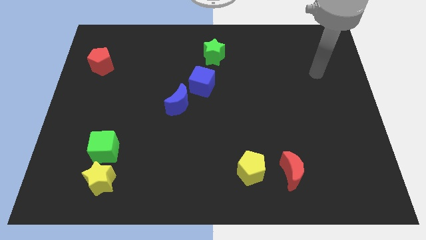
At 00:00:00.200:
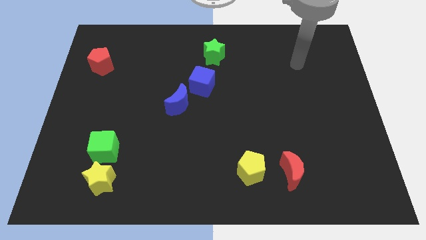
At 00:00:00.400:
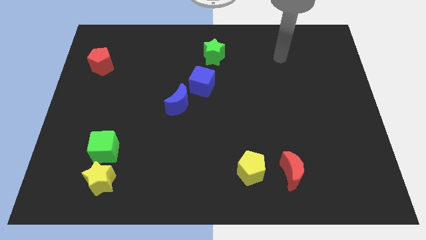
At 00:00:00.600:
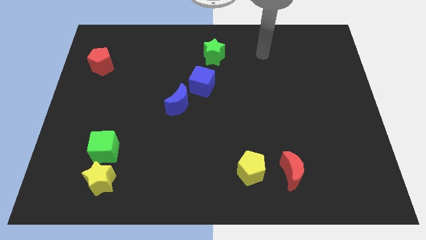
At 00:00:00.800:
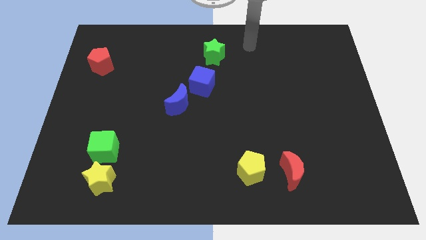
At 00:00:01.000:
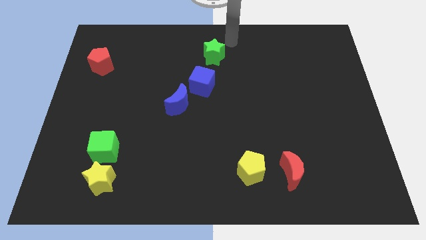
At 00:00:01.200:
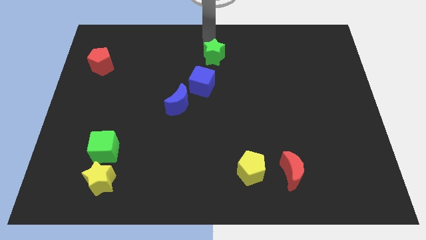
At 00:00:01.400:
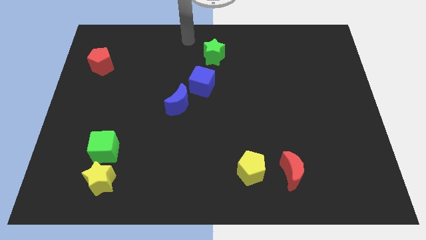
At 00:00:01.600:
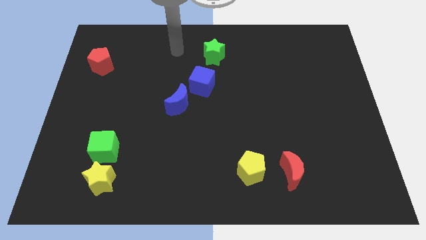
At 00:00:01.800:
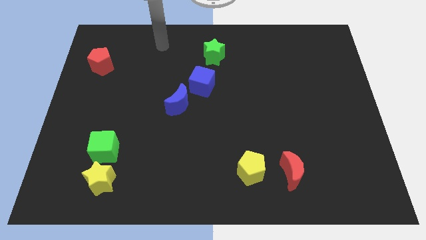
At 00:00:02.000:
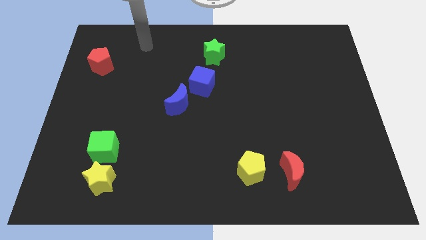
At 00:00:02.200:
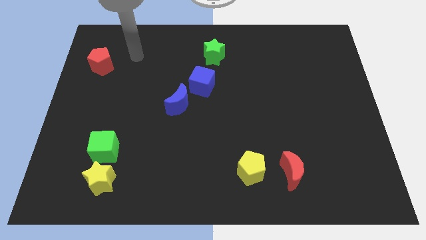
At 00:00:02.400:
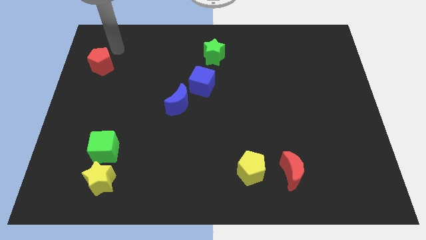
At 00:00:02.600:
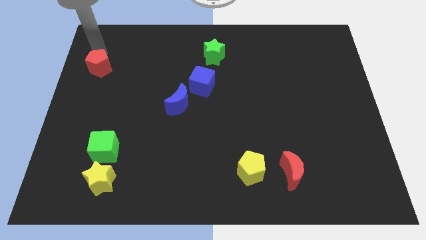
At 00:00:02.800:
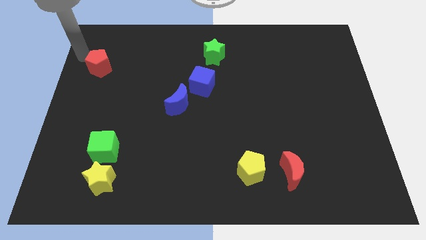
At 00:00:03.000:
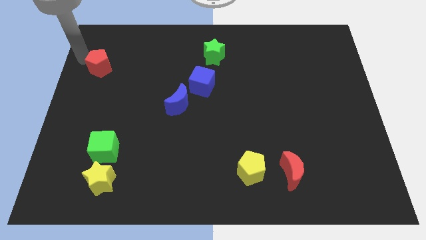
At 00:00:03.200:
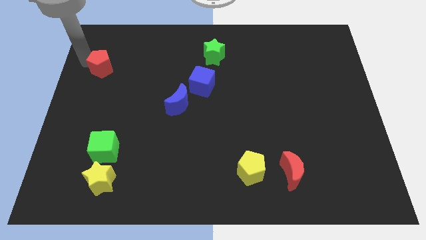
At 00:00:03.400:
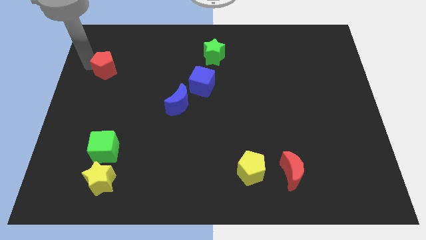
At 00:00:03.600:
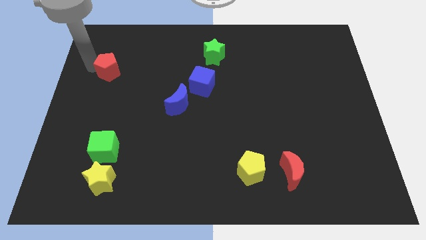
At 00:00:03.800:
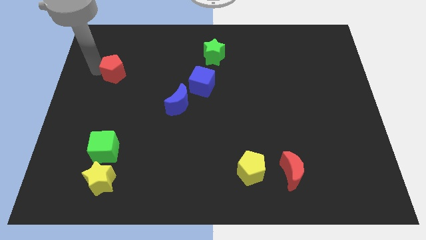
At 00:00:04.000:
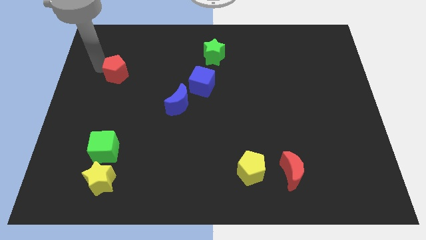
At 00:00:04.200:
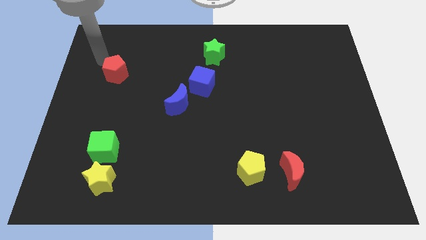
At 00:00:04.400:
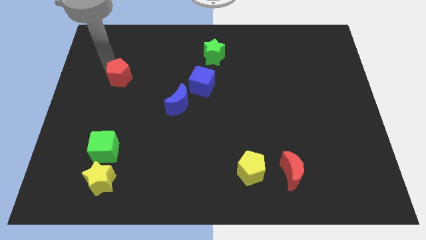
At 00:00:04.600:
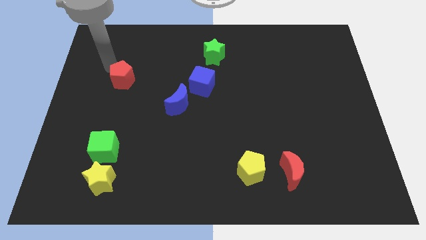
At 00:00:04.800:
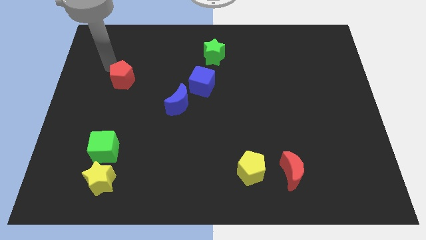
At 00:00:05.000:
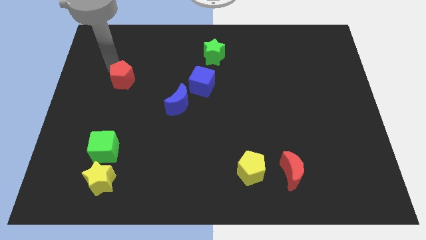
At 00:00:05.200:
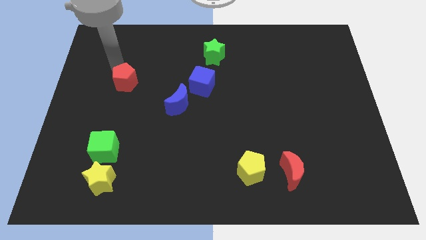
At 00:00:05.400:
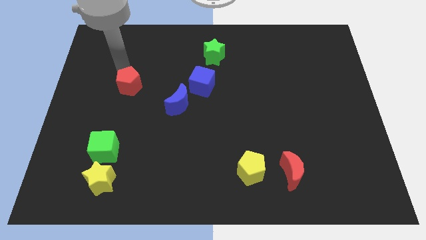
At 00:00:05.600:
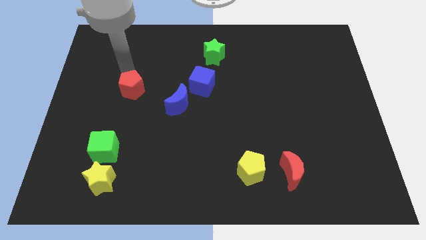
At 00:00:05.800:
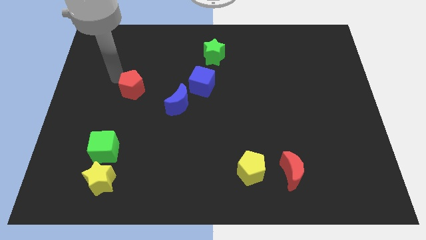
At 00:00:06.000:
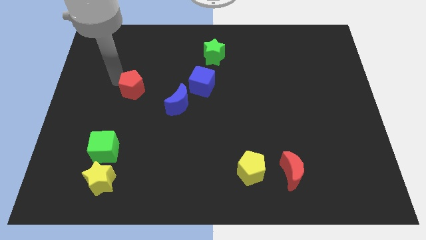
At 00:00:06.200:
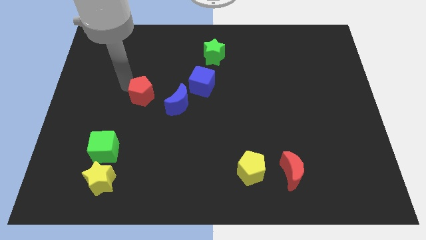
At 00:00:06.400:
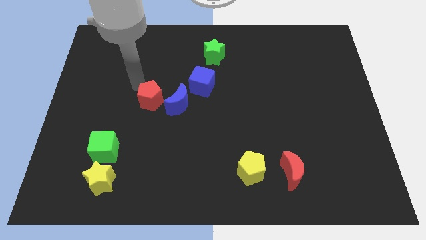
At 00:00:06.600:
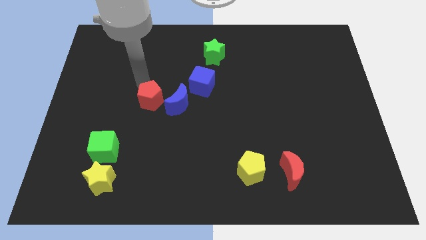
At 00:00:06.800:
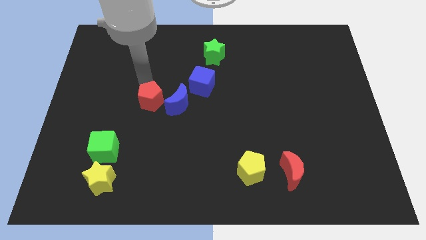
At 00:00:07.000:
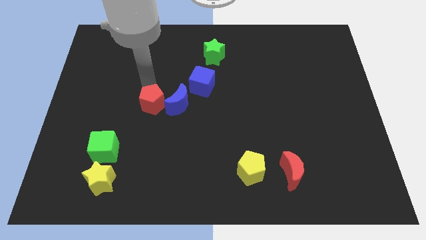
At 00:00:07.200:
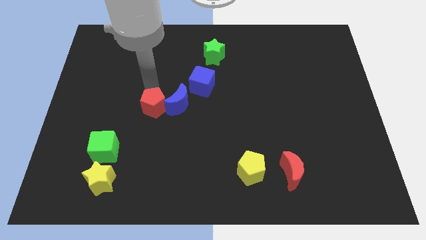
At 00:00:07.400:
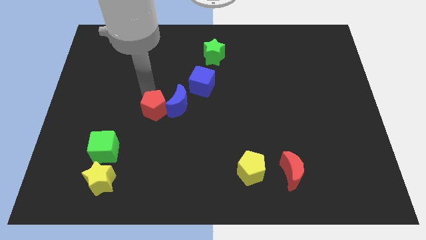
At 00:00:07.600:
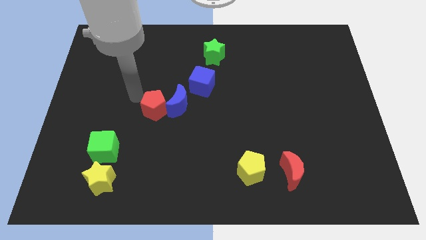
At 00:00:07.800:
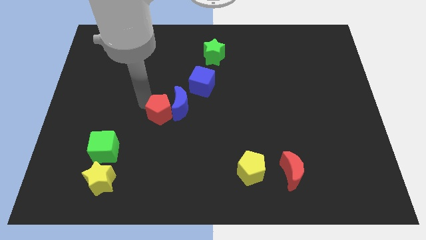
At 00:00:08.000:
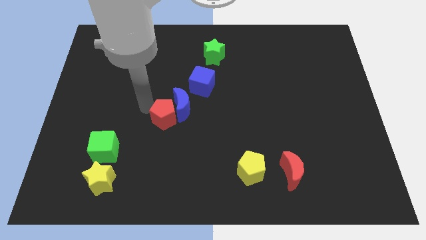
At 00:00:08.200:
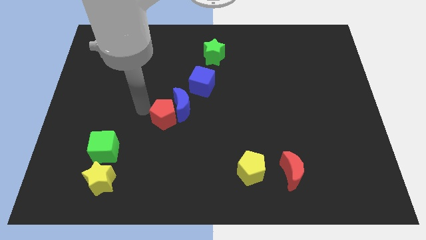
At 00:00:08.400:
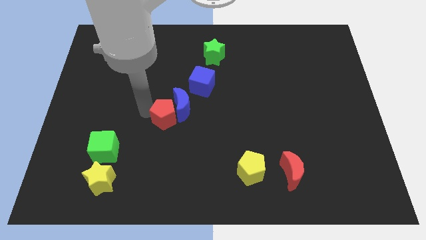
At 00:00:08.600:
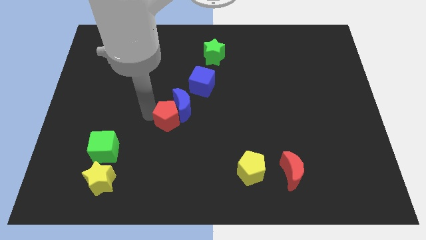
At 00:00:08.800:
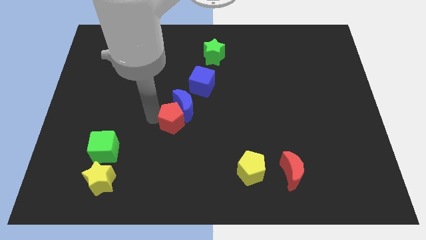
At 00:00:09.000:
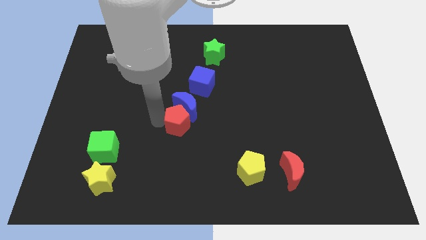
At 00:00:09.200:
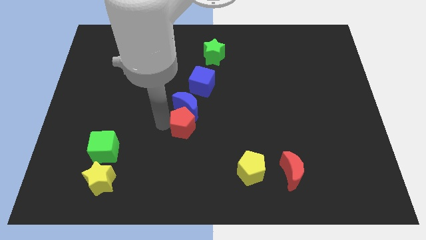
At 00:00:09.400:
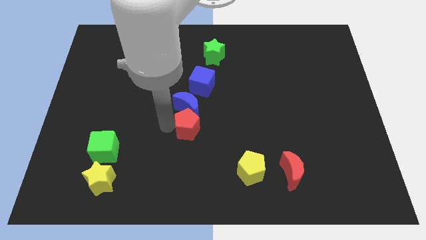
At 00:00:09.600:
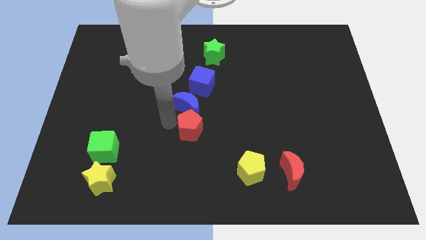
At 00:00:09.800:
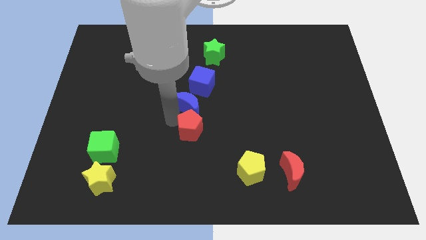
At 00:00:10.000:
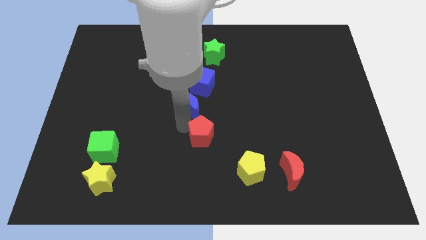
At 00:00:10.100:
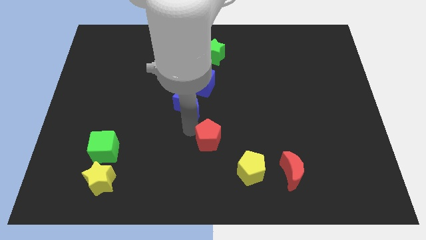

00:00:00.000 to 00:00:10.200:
put the red pentagon diagonally up and to the left of the yellow pentagon

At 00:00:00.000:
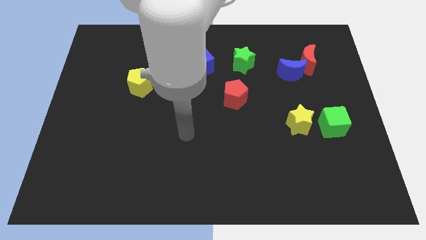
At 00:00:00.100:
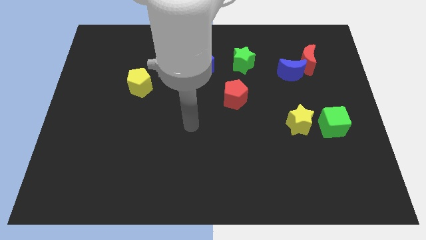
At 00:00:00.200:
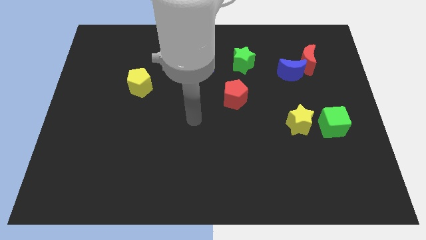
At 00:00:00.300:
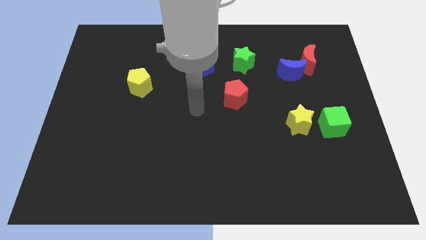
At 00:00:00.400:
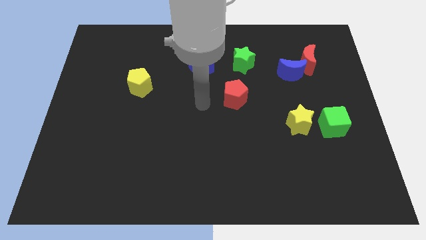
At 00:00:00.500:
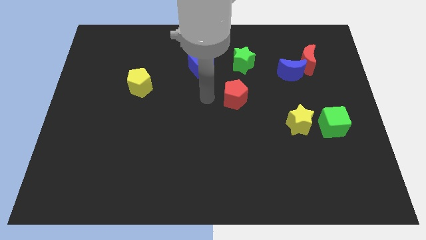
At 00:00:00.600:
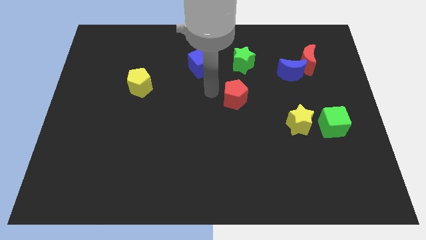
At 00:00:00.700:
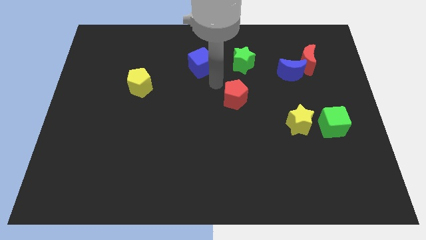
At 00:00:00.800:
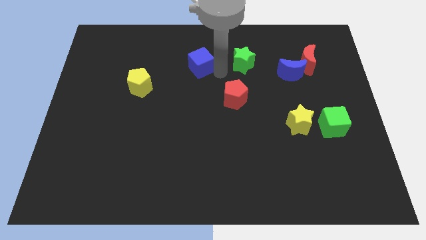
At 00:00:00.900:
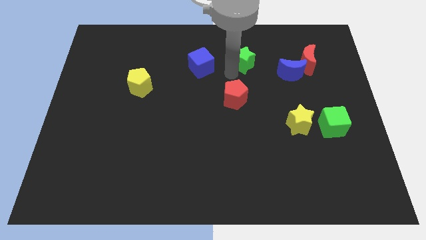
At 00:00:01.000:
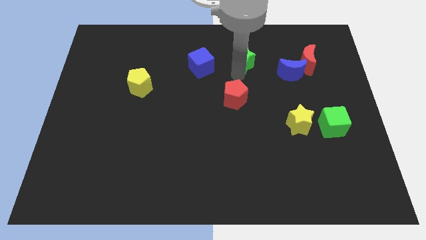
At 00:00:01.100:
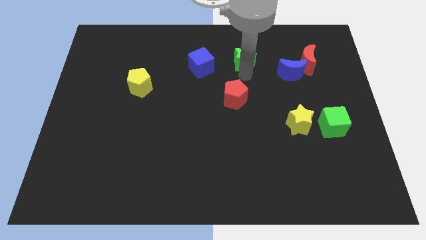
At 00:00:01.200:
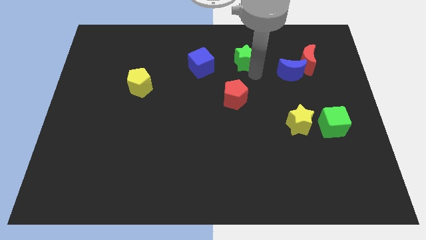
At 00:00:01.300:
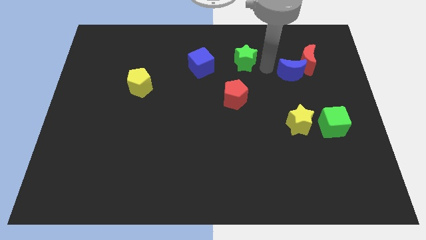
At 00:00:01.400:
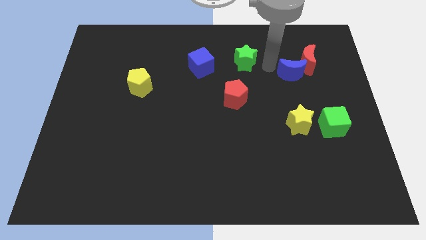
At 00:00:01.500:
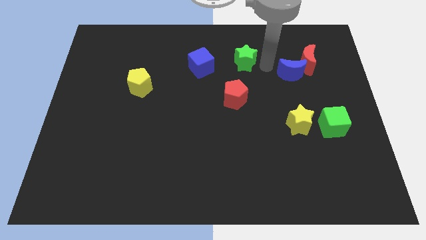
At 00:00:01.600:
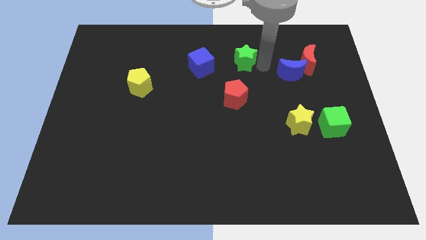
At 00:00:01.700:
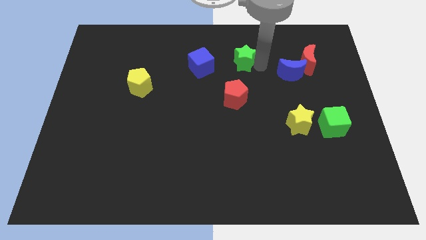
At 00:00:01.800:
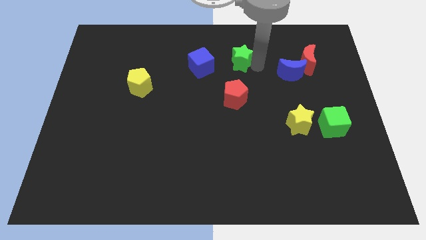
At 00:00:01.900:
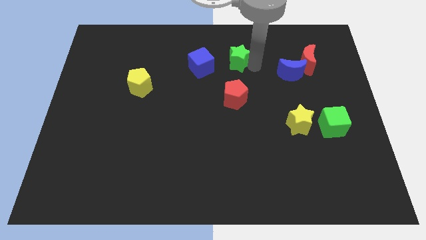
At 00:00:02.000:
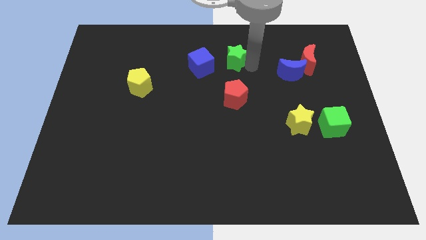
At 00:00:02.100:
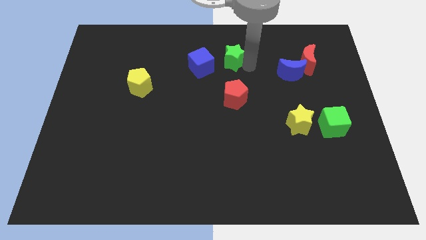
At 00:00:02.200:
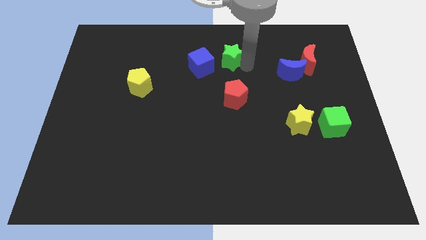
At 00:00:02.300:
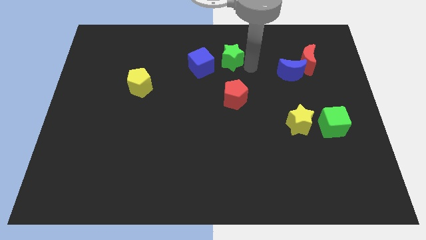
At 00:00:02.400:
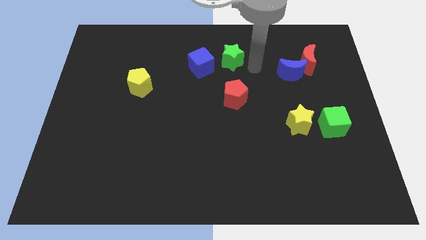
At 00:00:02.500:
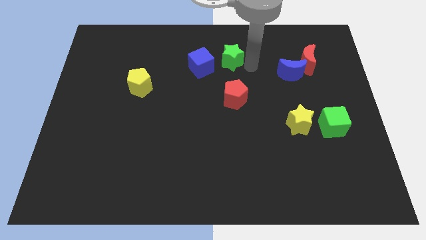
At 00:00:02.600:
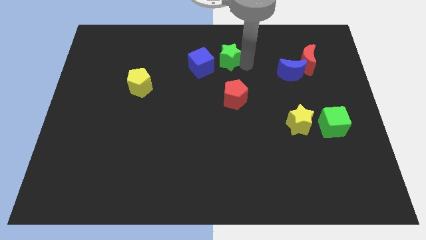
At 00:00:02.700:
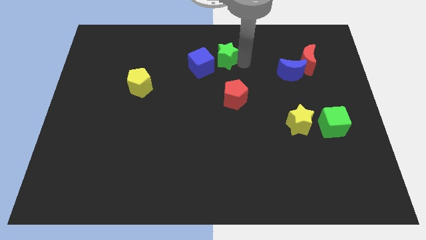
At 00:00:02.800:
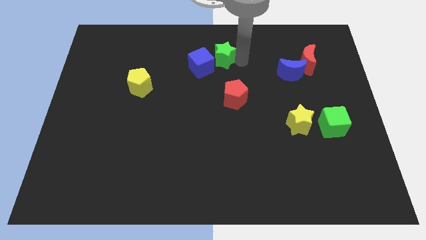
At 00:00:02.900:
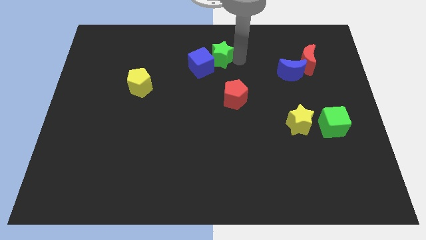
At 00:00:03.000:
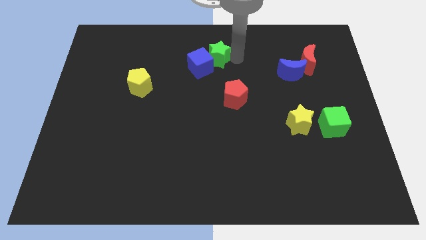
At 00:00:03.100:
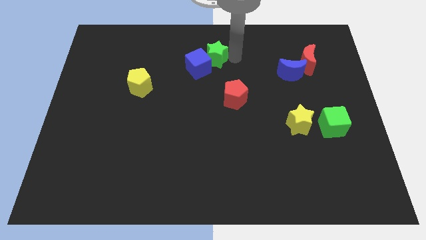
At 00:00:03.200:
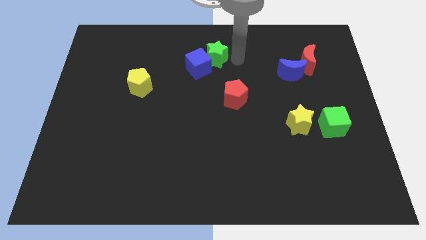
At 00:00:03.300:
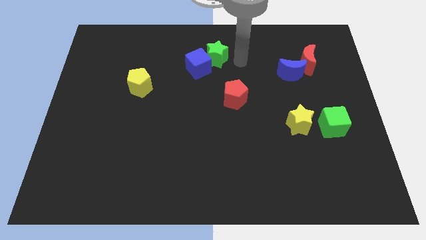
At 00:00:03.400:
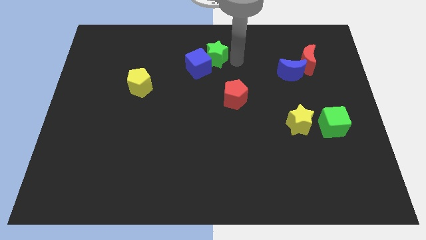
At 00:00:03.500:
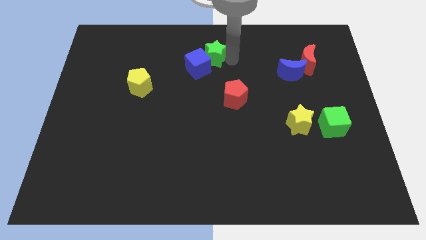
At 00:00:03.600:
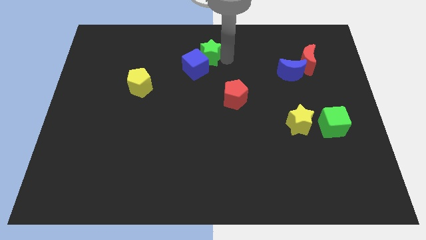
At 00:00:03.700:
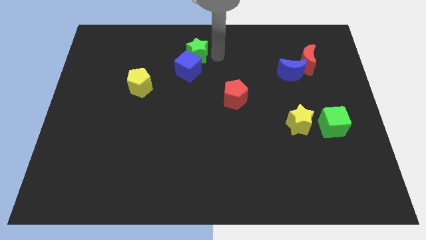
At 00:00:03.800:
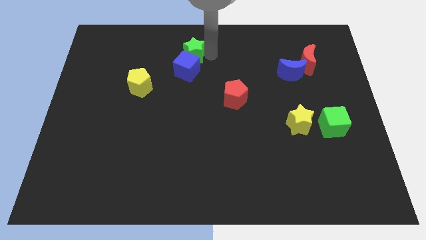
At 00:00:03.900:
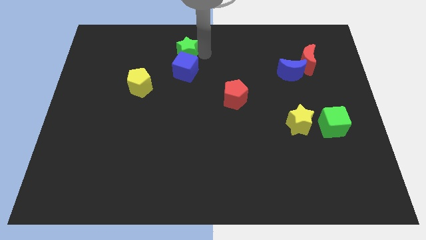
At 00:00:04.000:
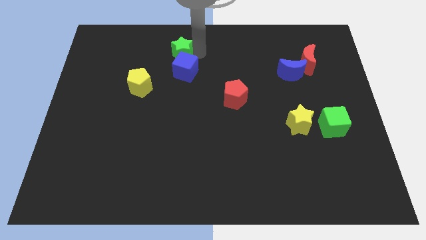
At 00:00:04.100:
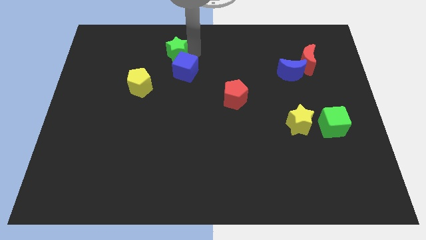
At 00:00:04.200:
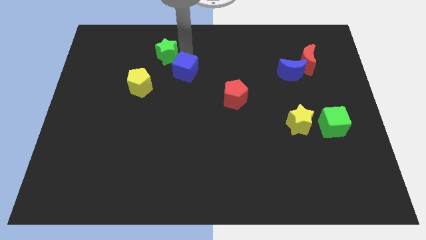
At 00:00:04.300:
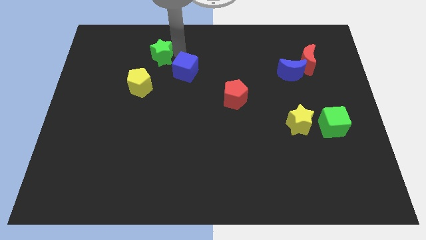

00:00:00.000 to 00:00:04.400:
put the green star above the yellow pentagon
